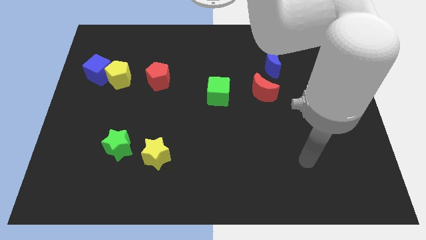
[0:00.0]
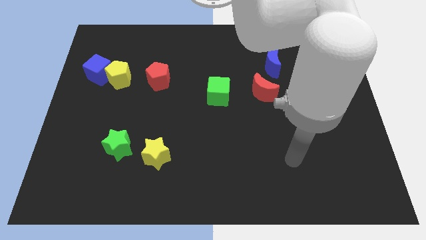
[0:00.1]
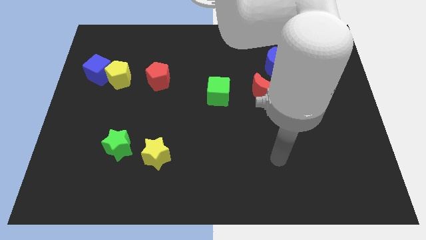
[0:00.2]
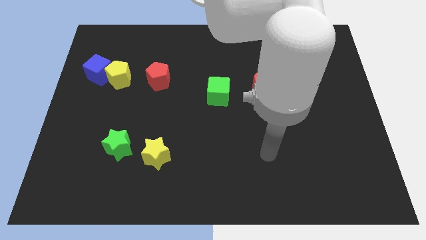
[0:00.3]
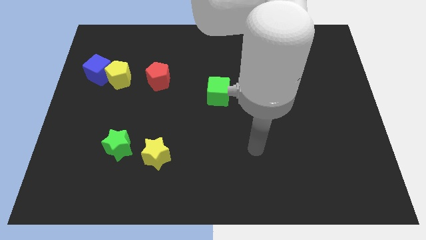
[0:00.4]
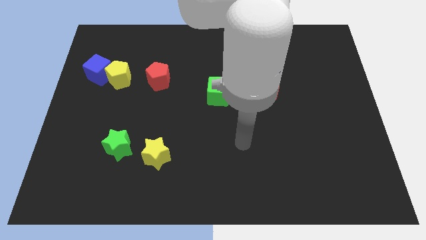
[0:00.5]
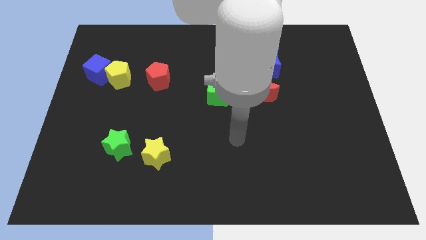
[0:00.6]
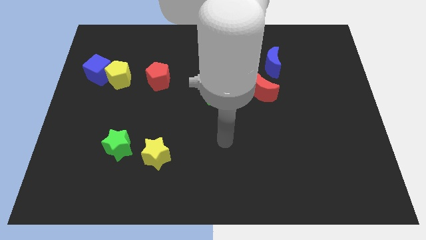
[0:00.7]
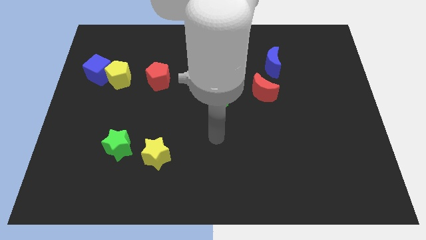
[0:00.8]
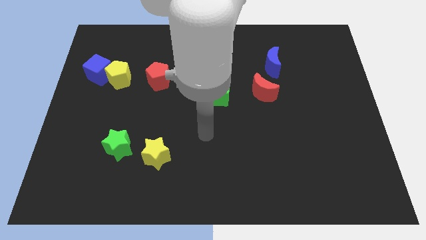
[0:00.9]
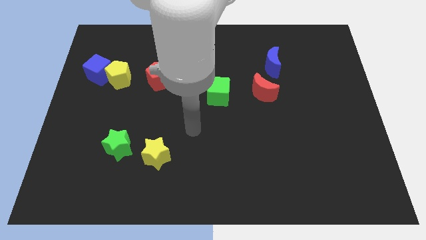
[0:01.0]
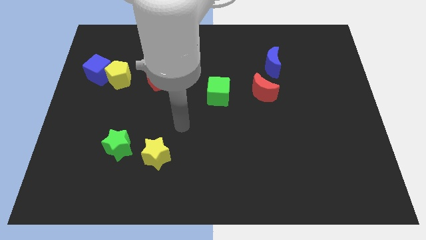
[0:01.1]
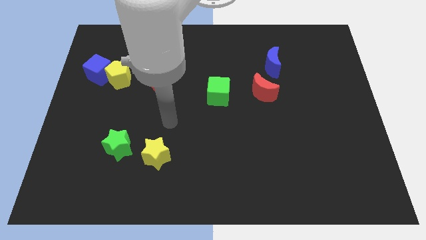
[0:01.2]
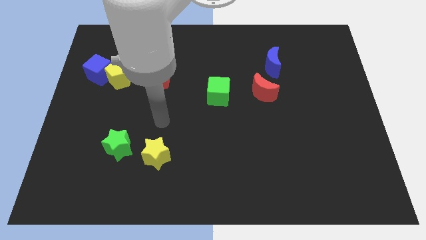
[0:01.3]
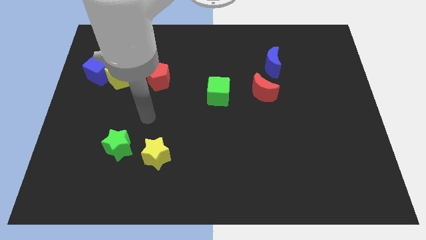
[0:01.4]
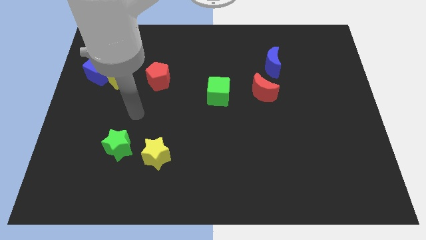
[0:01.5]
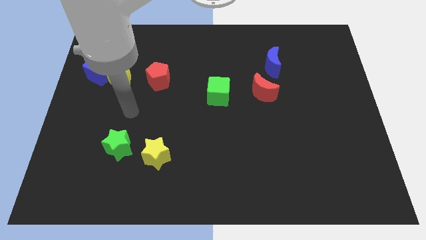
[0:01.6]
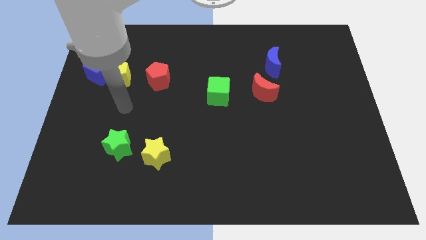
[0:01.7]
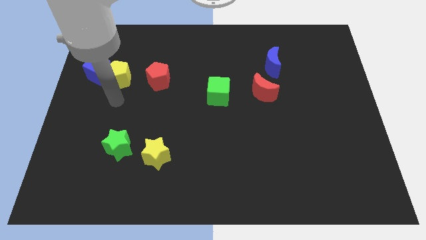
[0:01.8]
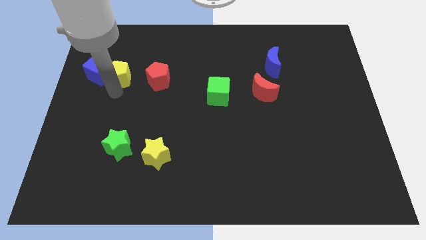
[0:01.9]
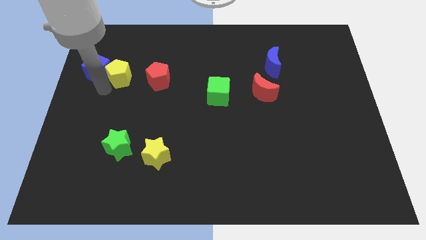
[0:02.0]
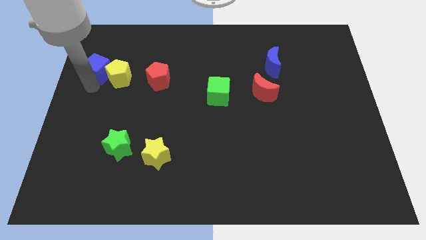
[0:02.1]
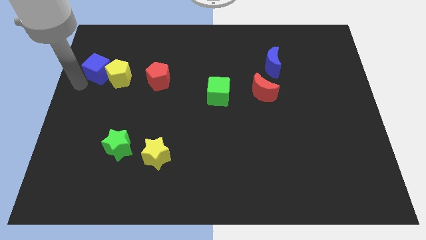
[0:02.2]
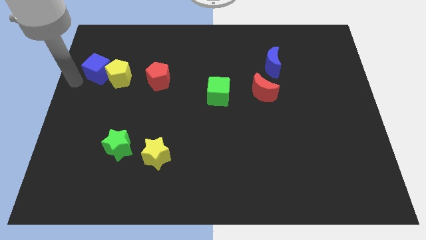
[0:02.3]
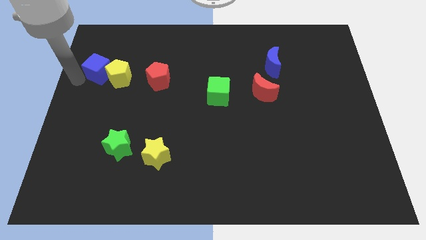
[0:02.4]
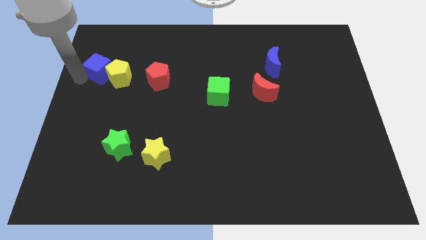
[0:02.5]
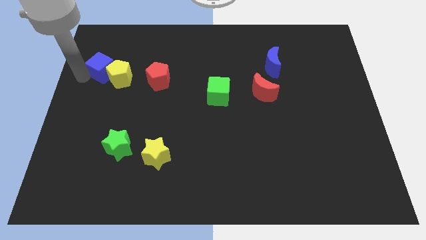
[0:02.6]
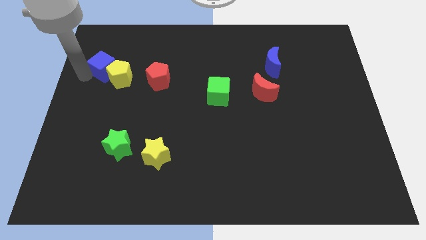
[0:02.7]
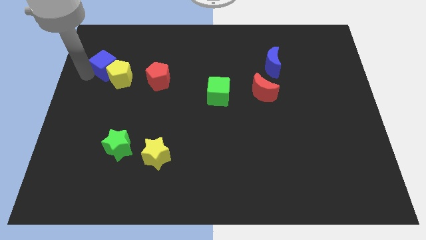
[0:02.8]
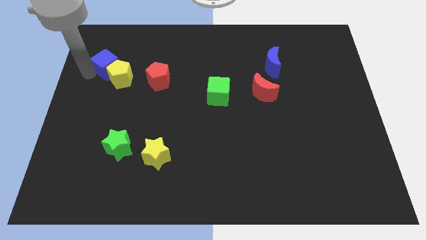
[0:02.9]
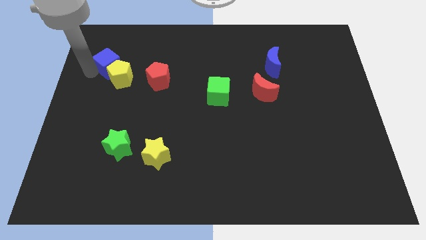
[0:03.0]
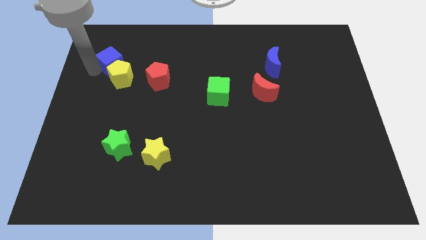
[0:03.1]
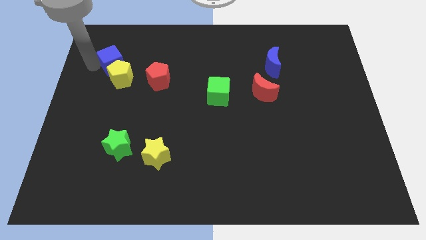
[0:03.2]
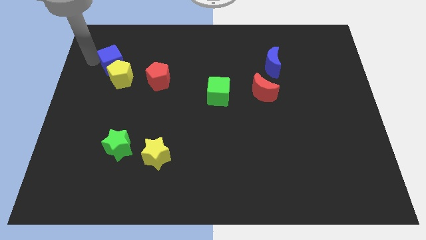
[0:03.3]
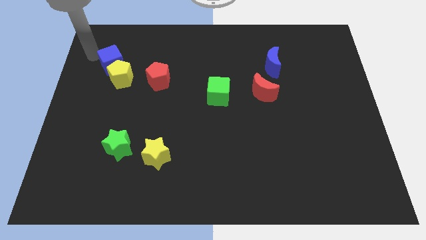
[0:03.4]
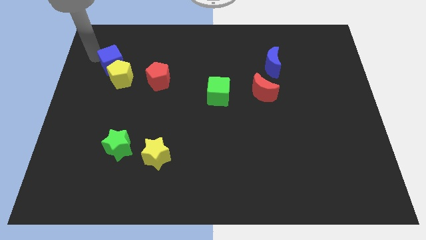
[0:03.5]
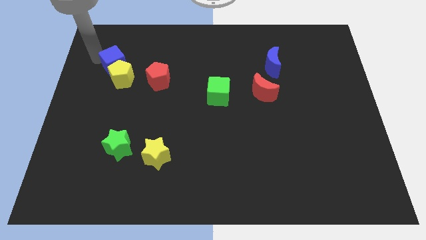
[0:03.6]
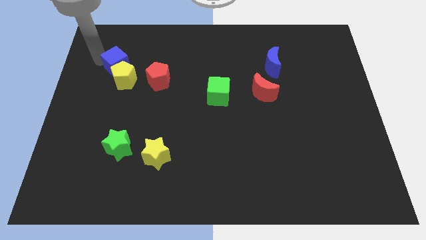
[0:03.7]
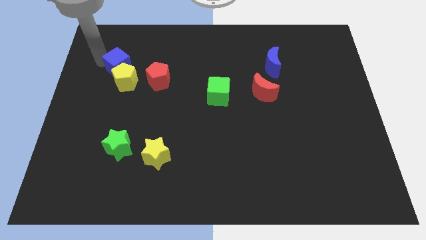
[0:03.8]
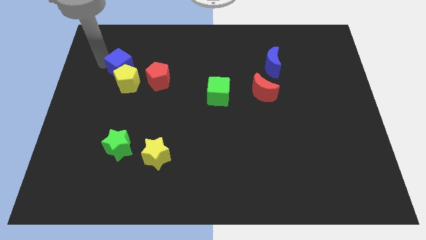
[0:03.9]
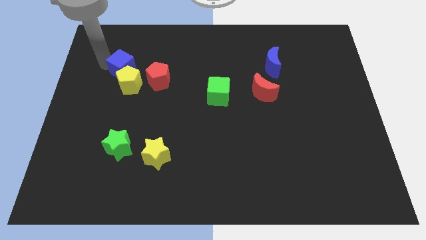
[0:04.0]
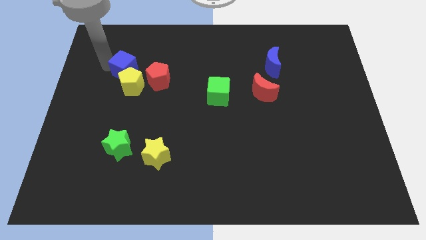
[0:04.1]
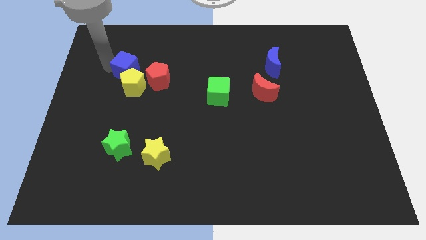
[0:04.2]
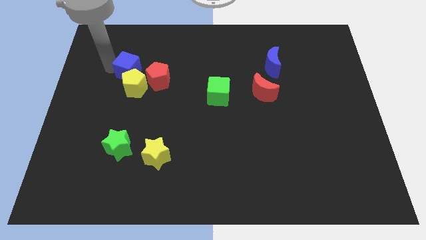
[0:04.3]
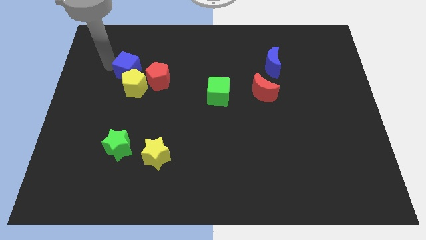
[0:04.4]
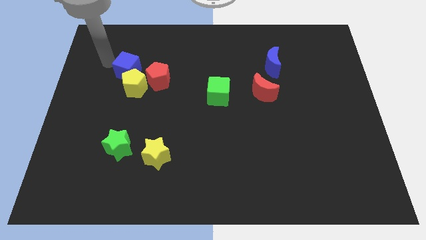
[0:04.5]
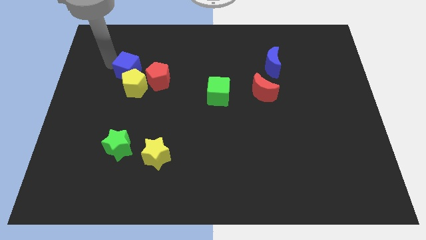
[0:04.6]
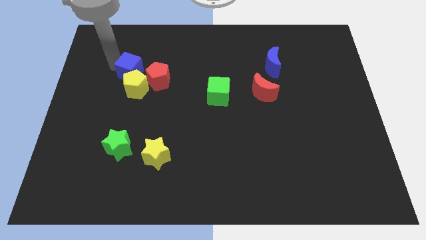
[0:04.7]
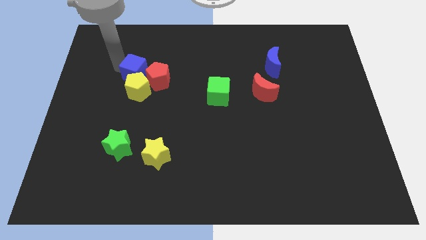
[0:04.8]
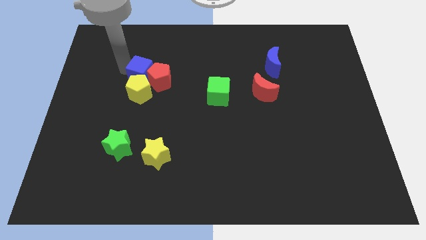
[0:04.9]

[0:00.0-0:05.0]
move the blue cube next to the red pentagon

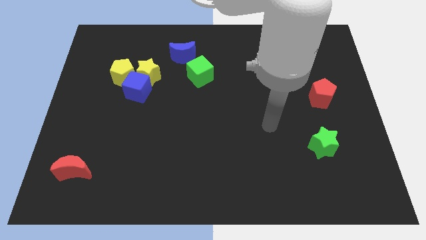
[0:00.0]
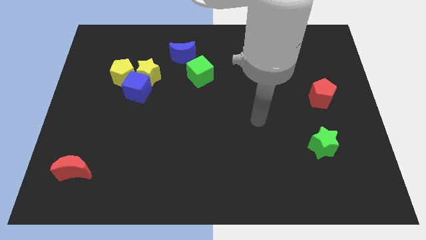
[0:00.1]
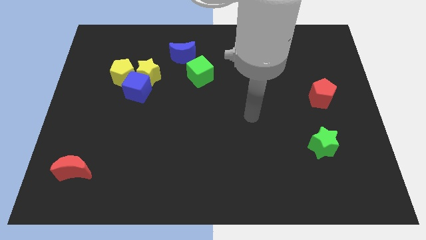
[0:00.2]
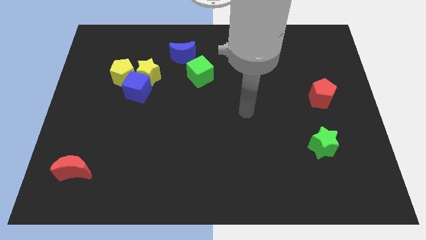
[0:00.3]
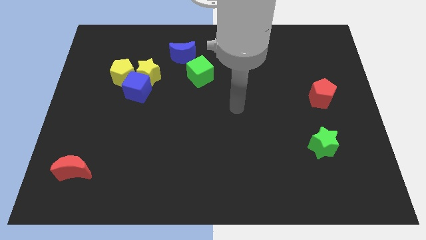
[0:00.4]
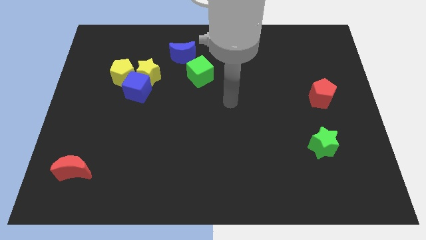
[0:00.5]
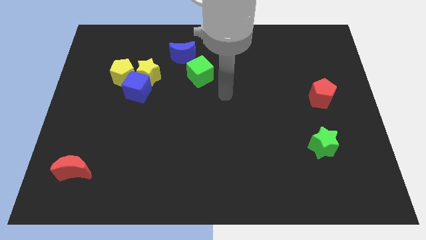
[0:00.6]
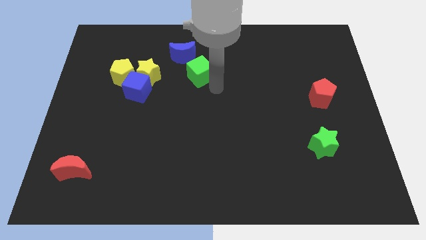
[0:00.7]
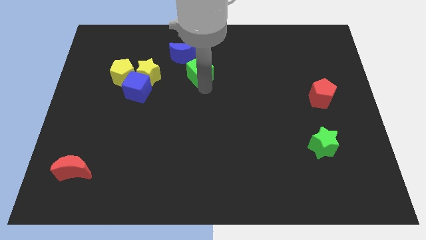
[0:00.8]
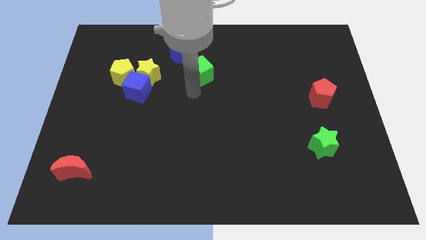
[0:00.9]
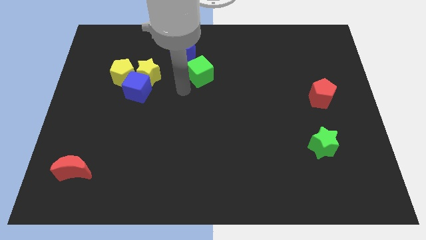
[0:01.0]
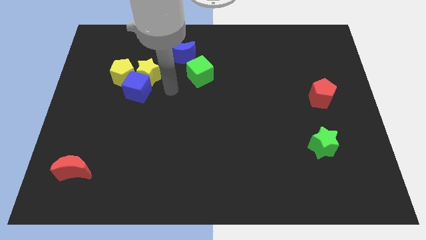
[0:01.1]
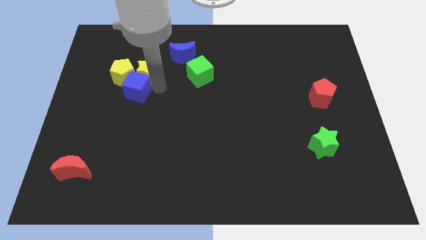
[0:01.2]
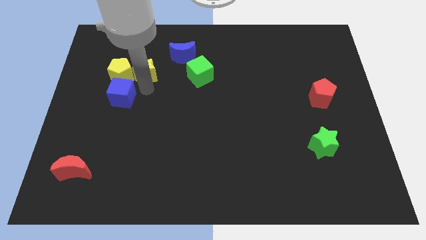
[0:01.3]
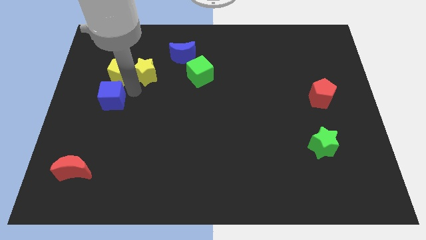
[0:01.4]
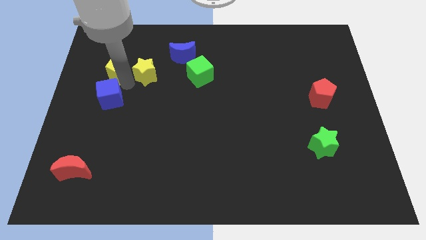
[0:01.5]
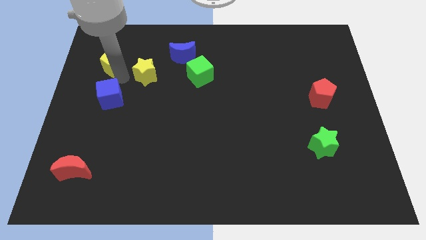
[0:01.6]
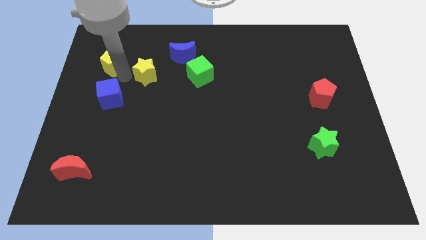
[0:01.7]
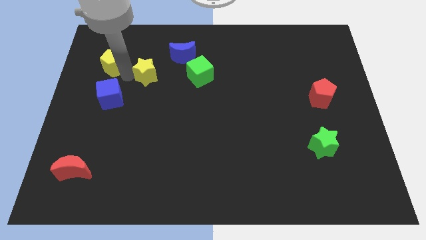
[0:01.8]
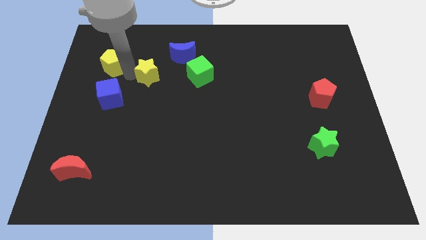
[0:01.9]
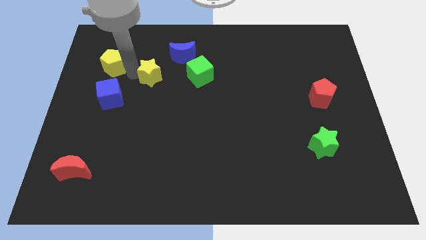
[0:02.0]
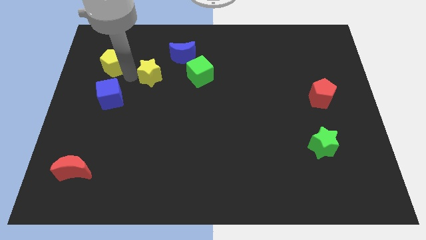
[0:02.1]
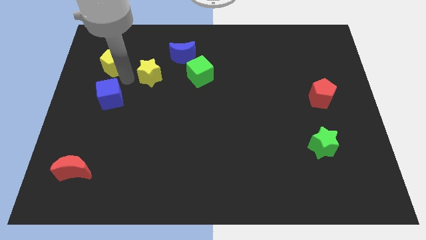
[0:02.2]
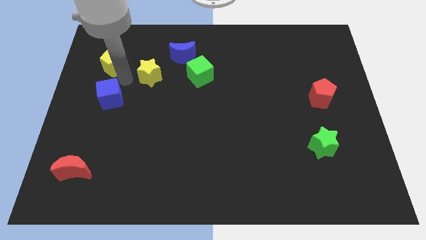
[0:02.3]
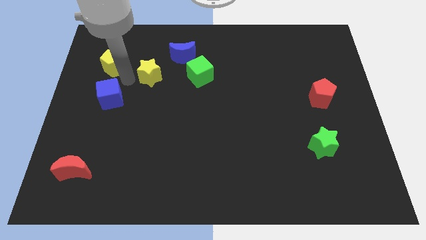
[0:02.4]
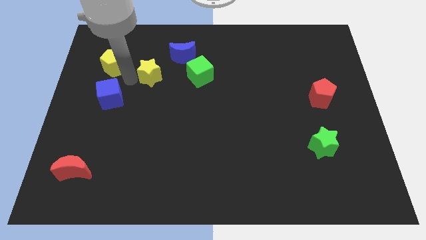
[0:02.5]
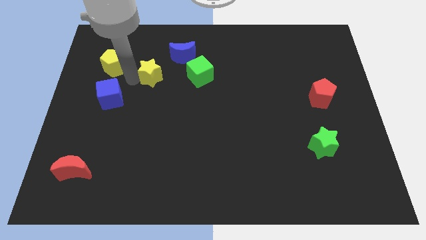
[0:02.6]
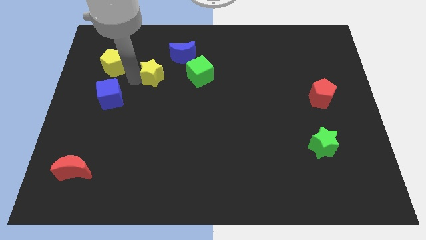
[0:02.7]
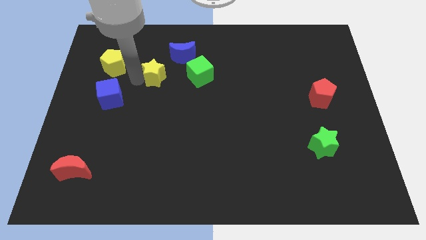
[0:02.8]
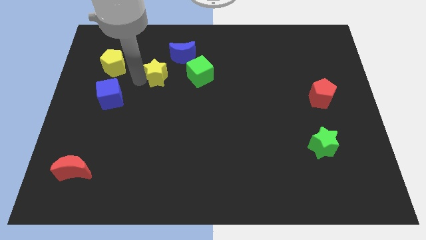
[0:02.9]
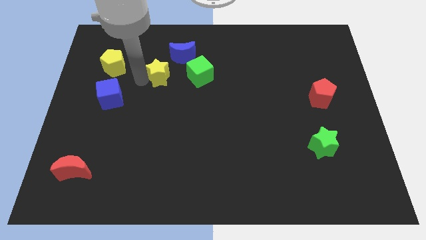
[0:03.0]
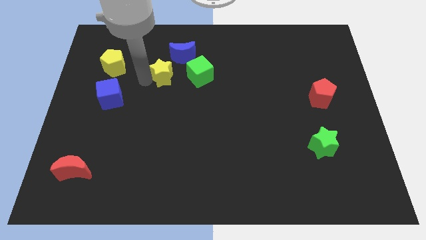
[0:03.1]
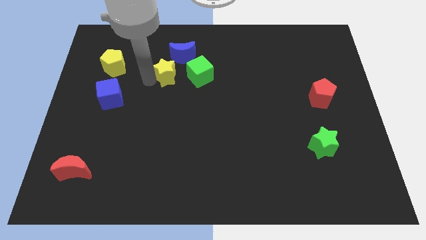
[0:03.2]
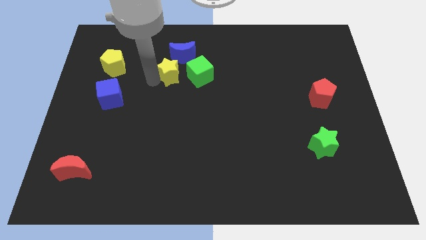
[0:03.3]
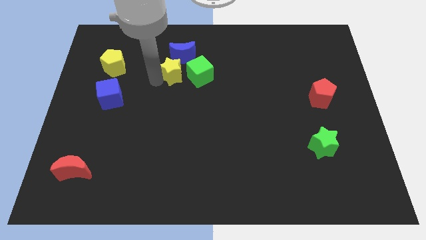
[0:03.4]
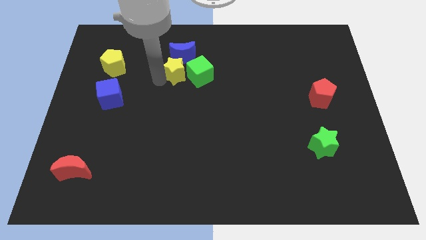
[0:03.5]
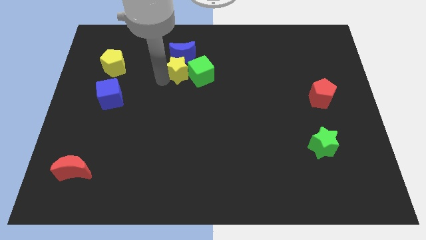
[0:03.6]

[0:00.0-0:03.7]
slide the yellow star close to the blue moon
